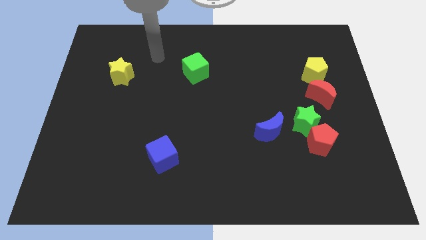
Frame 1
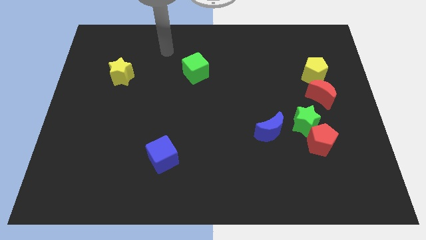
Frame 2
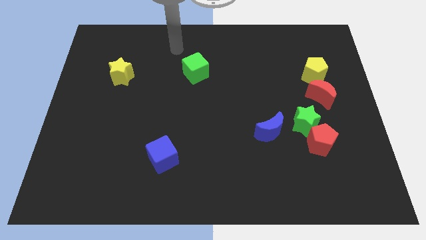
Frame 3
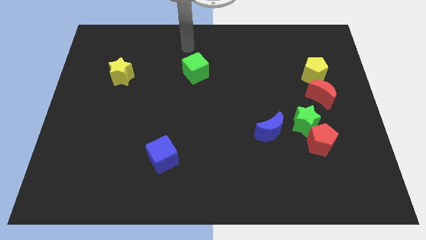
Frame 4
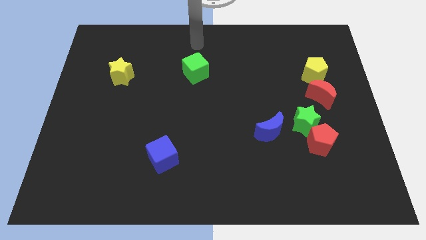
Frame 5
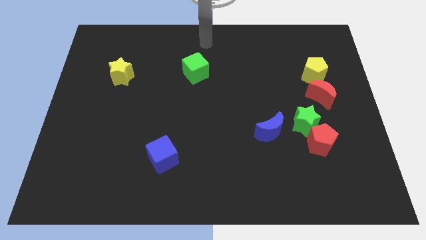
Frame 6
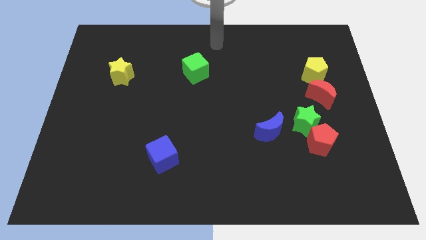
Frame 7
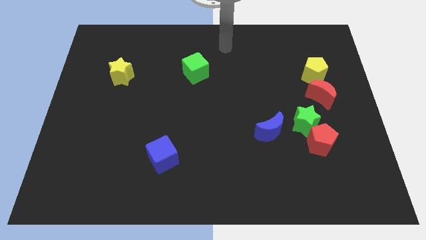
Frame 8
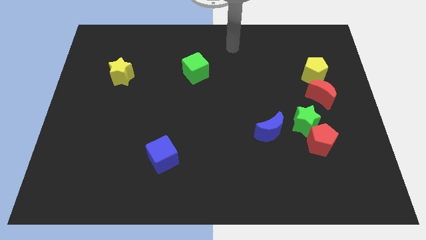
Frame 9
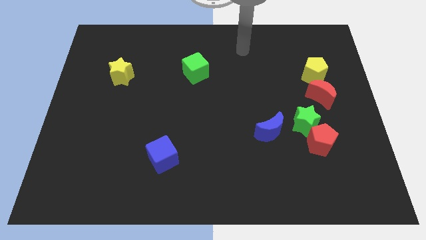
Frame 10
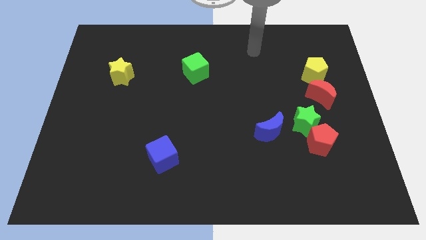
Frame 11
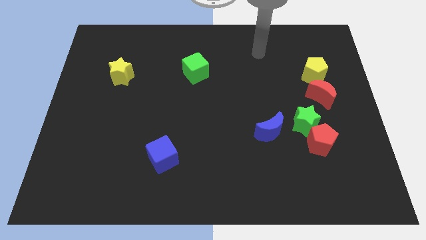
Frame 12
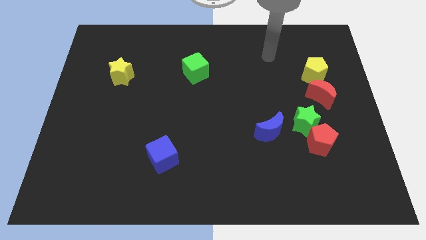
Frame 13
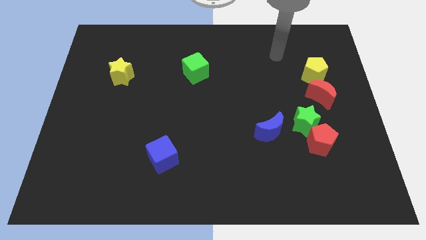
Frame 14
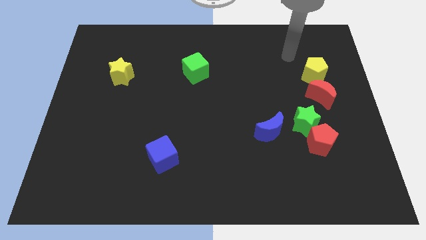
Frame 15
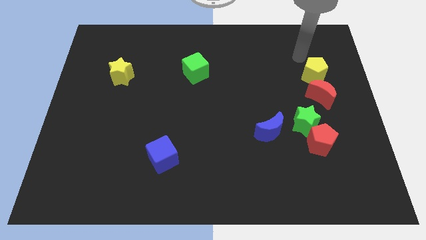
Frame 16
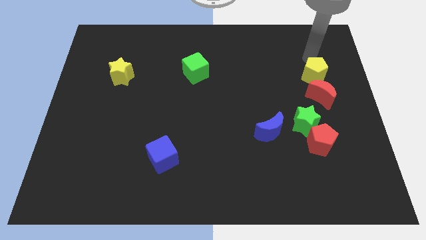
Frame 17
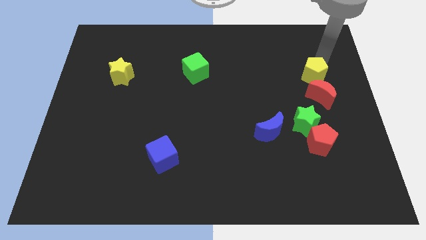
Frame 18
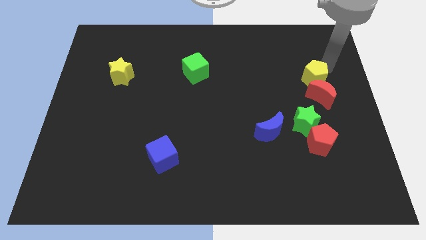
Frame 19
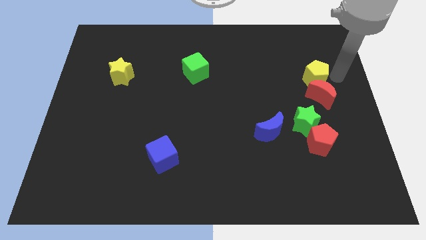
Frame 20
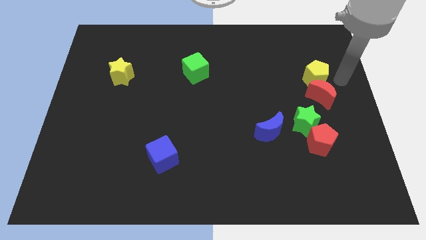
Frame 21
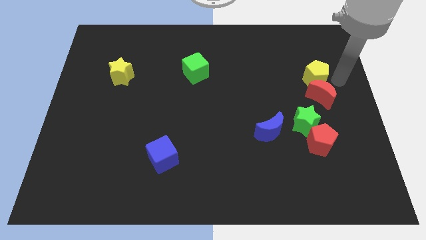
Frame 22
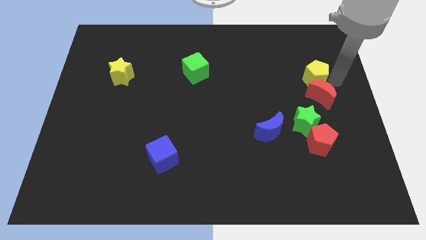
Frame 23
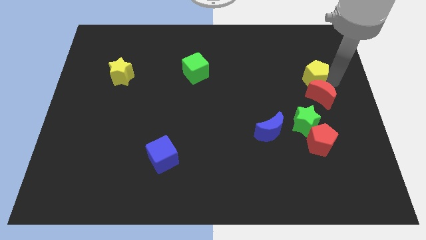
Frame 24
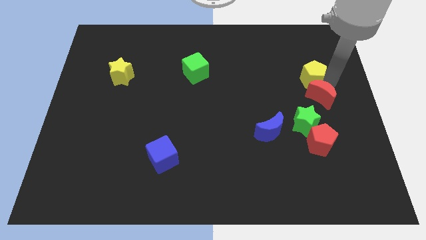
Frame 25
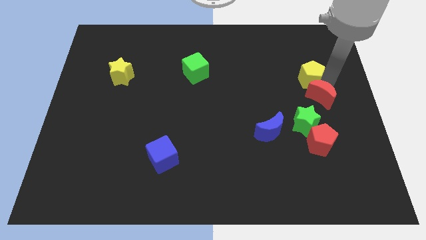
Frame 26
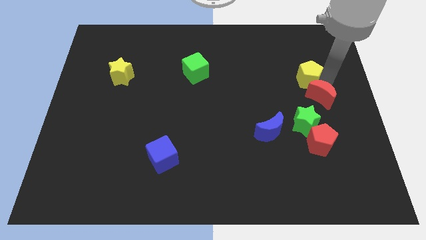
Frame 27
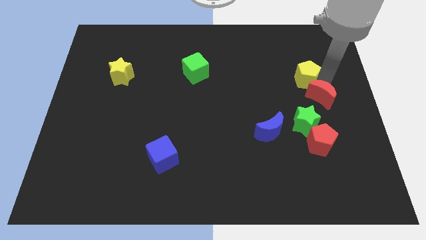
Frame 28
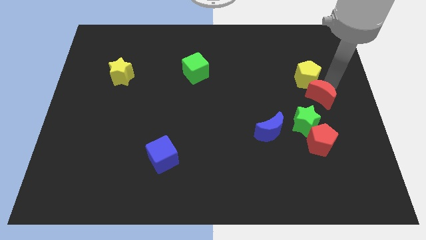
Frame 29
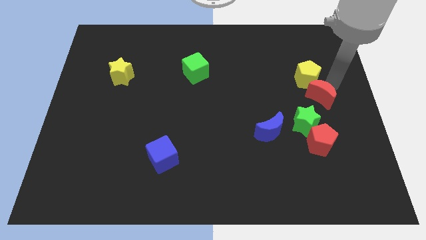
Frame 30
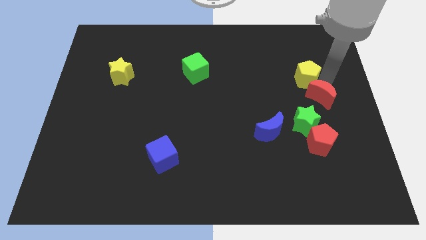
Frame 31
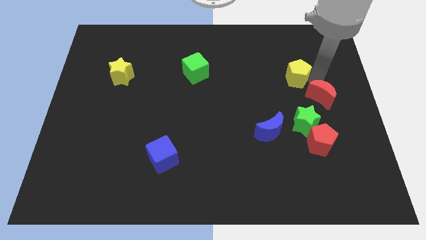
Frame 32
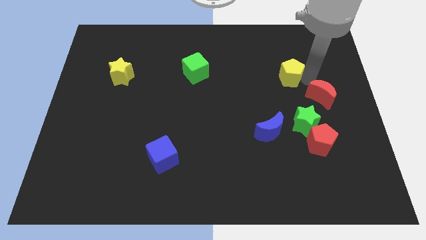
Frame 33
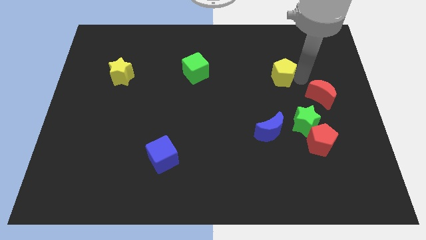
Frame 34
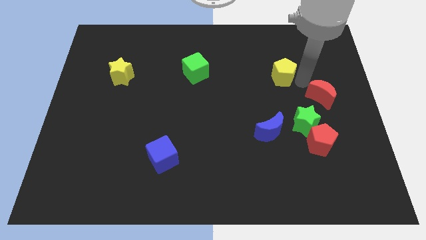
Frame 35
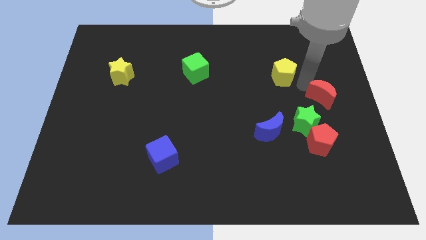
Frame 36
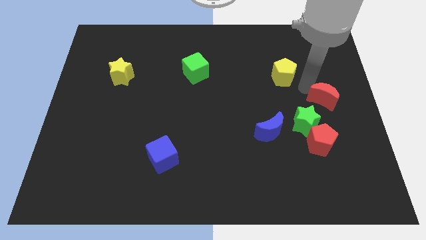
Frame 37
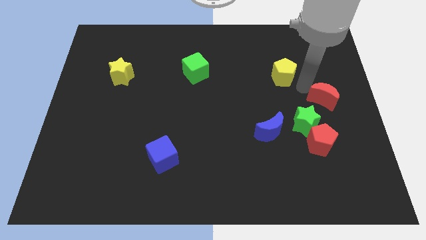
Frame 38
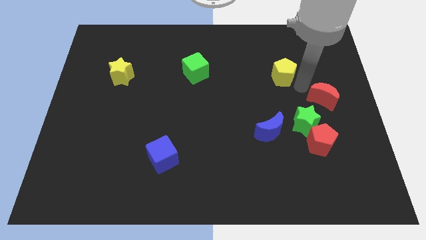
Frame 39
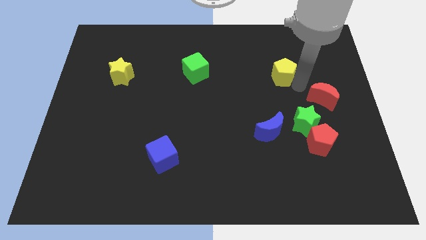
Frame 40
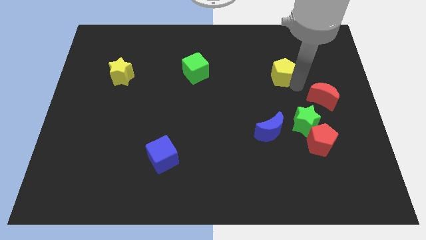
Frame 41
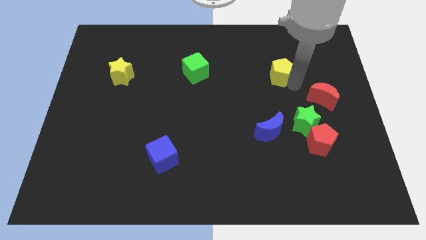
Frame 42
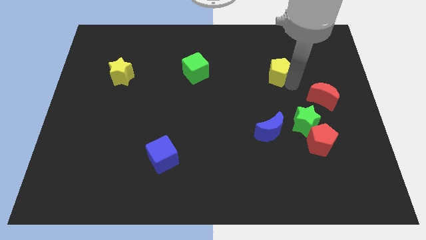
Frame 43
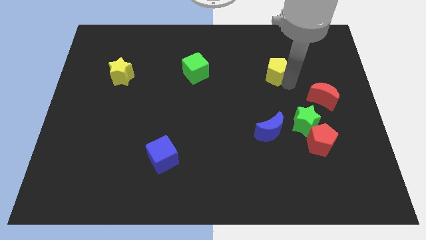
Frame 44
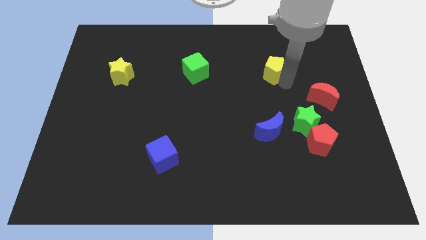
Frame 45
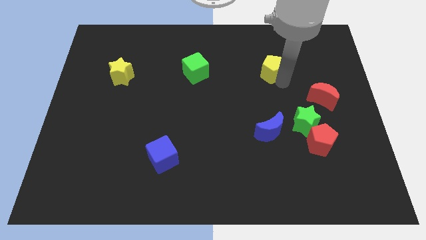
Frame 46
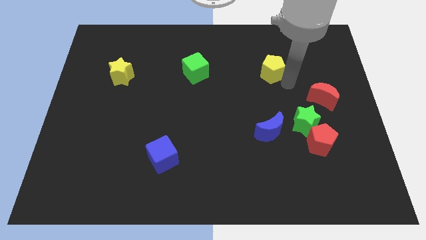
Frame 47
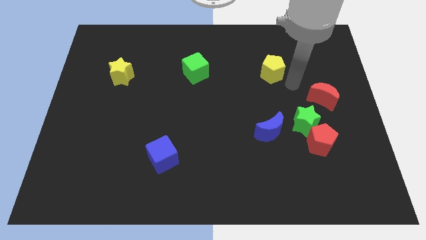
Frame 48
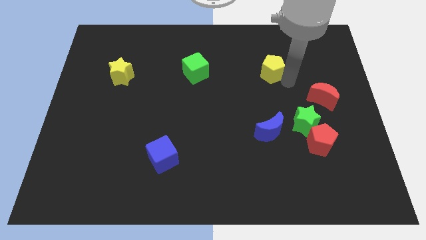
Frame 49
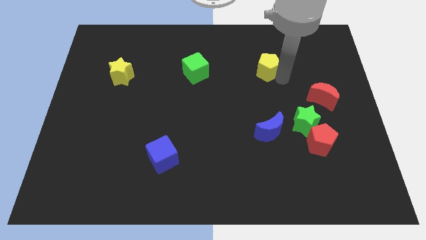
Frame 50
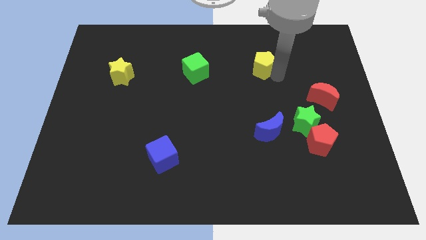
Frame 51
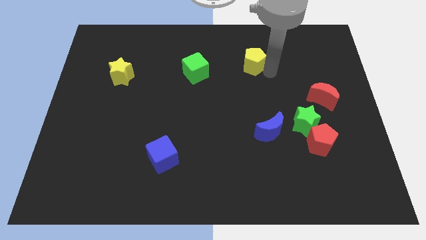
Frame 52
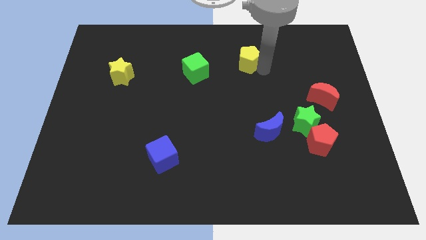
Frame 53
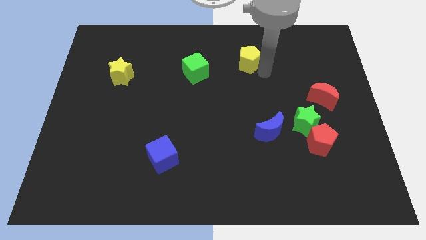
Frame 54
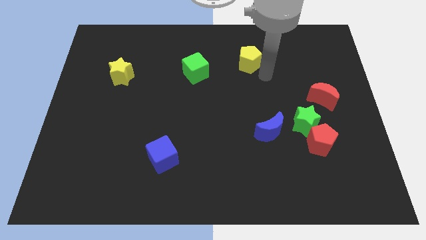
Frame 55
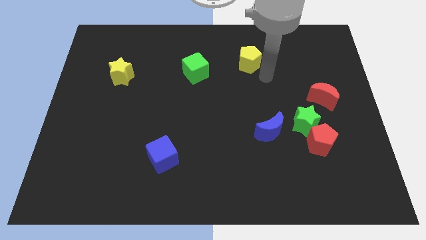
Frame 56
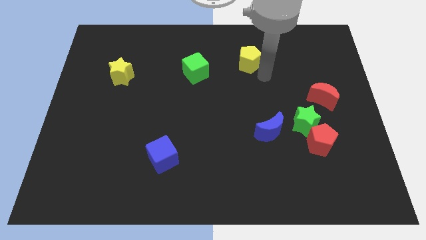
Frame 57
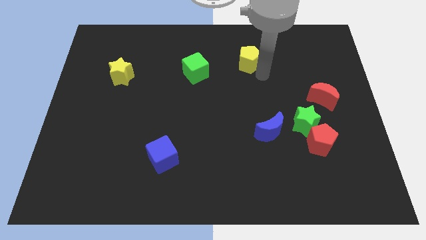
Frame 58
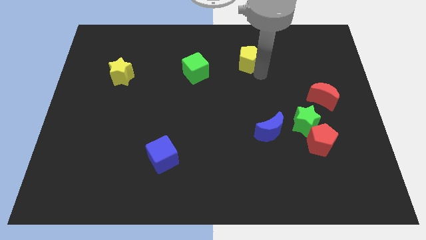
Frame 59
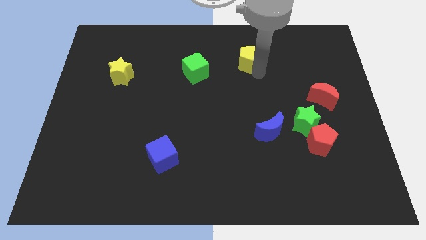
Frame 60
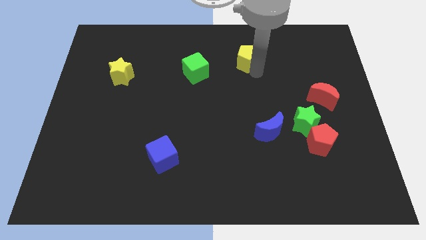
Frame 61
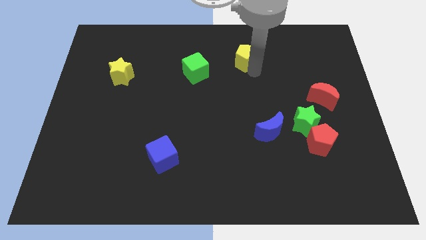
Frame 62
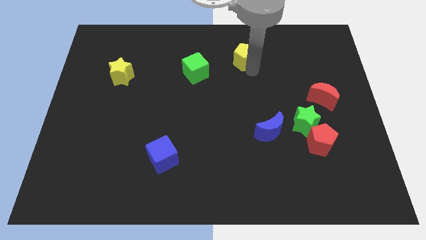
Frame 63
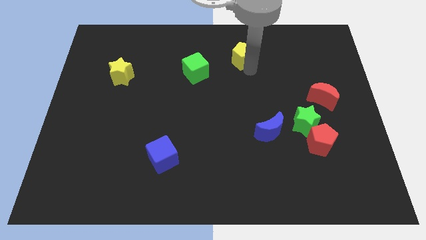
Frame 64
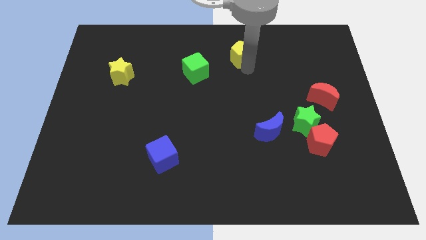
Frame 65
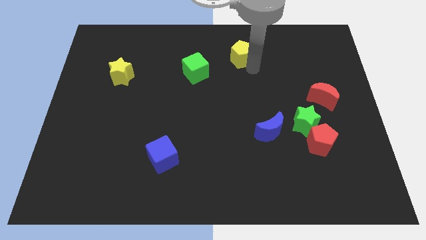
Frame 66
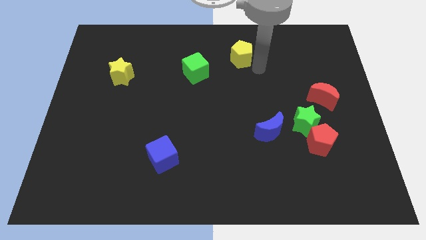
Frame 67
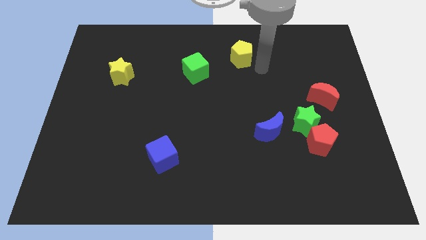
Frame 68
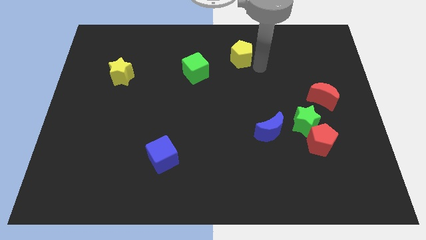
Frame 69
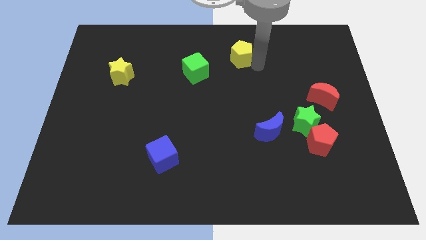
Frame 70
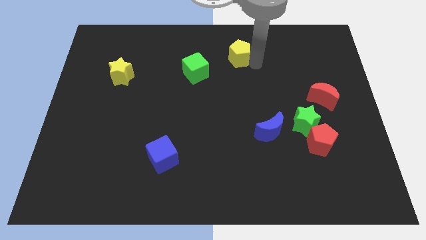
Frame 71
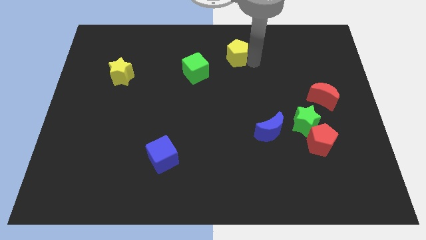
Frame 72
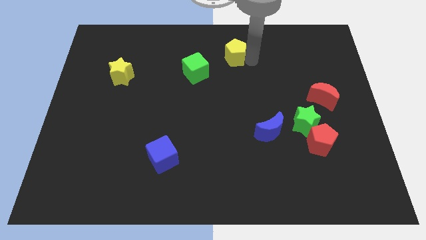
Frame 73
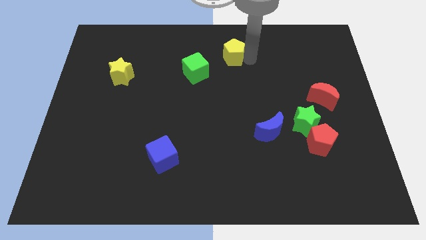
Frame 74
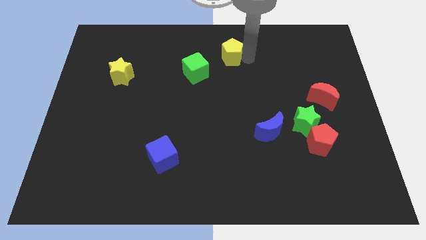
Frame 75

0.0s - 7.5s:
move the yellow pentagon to the top side
